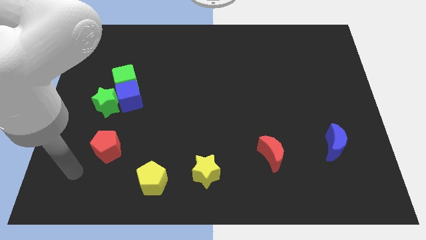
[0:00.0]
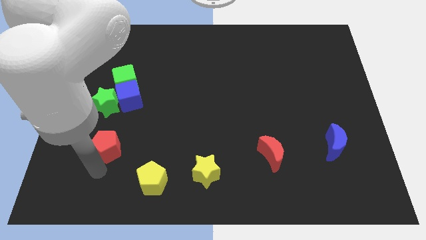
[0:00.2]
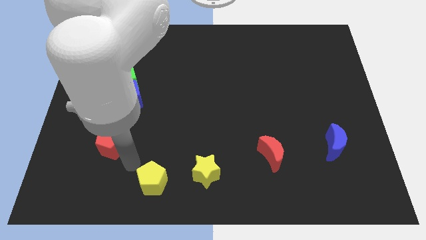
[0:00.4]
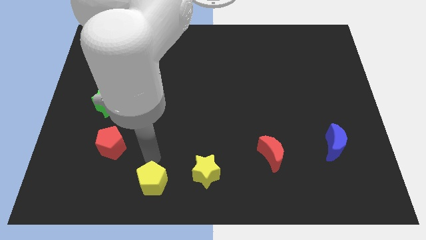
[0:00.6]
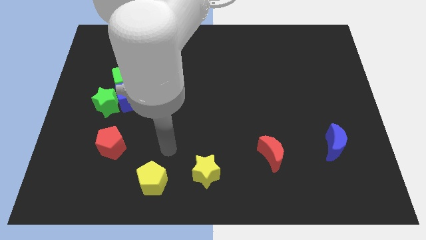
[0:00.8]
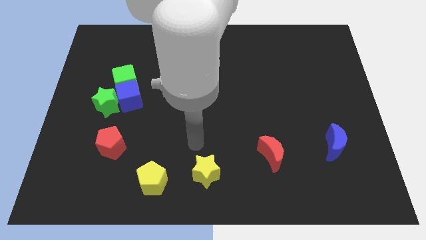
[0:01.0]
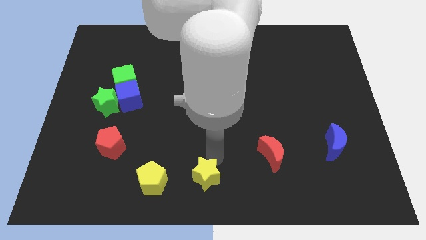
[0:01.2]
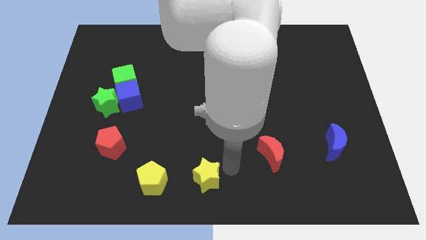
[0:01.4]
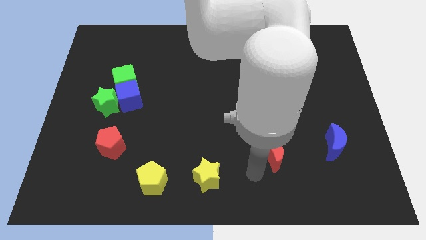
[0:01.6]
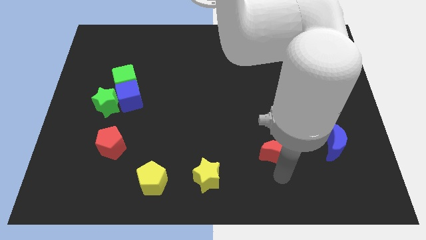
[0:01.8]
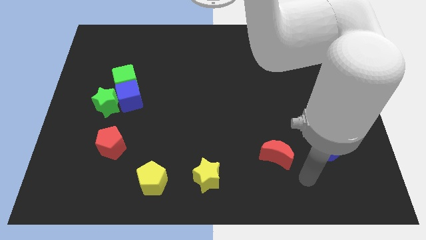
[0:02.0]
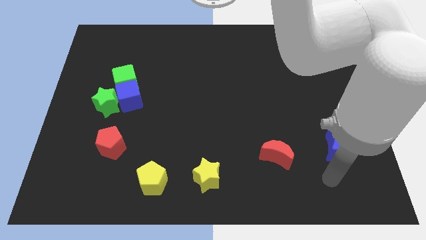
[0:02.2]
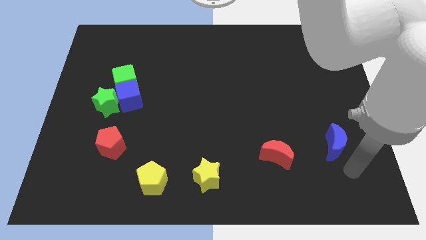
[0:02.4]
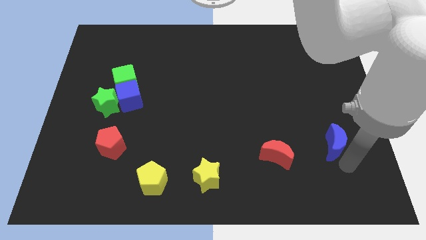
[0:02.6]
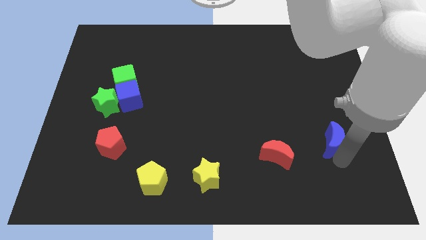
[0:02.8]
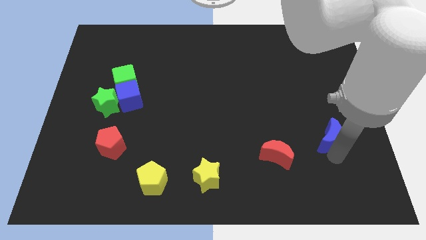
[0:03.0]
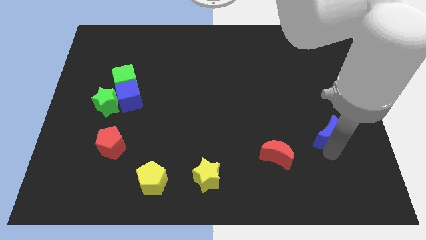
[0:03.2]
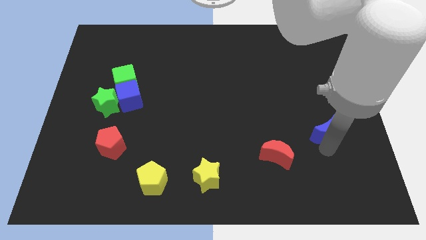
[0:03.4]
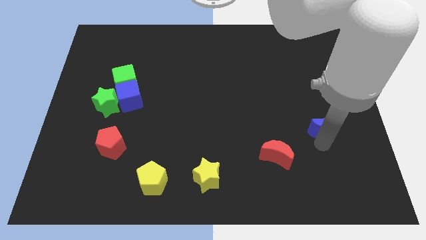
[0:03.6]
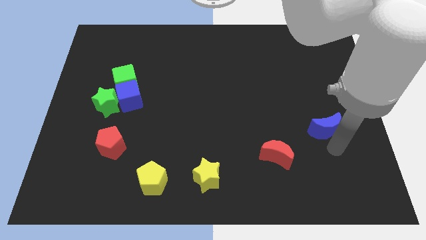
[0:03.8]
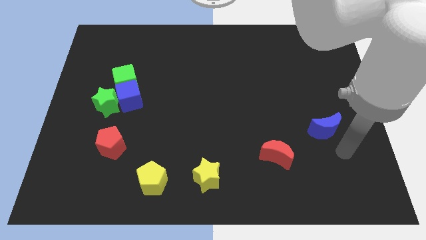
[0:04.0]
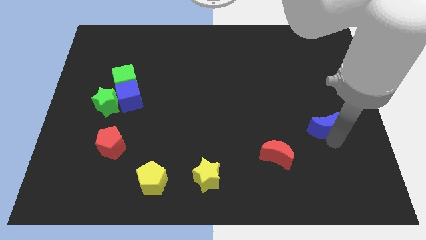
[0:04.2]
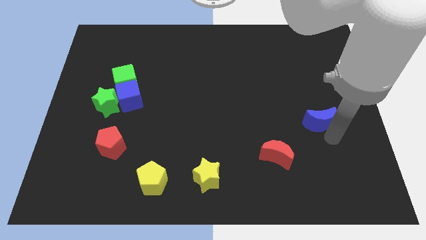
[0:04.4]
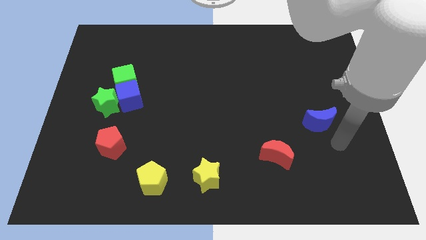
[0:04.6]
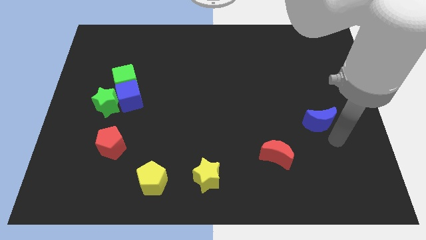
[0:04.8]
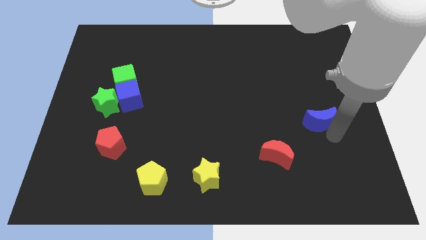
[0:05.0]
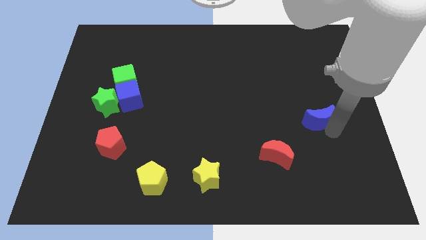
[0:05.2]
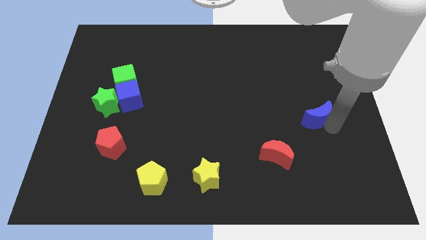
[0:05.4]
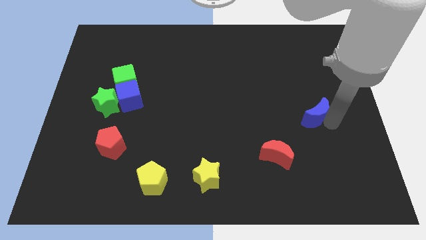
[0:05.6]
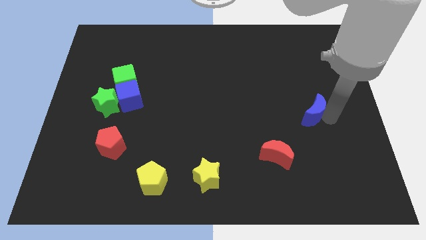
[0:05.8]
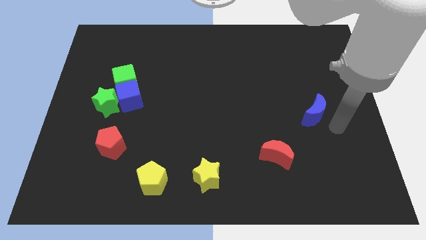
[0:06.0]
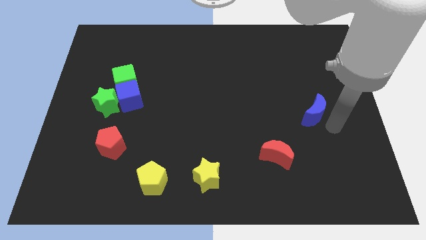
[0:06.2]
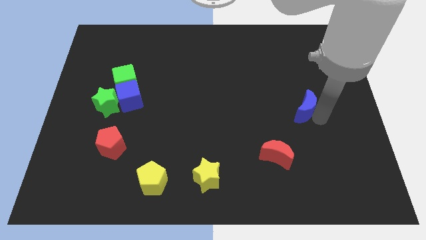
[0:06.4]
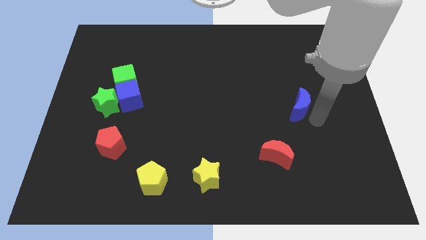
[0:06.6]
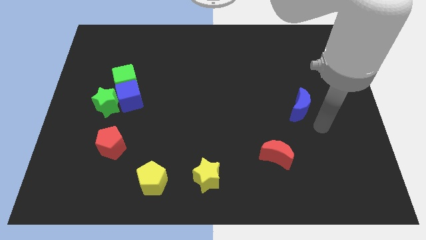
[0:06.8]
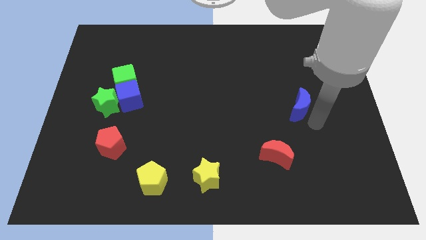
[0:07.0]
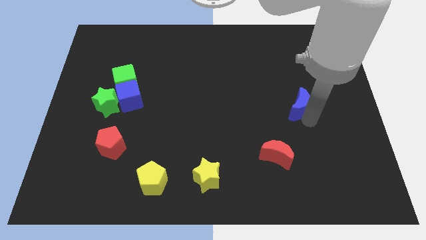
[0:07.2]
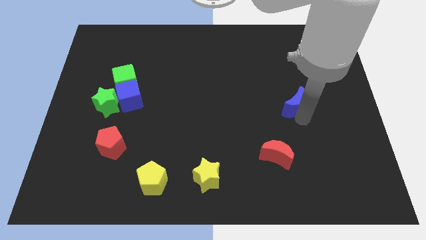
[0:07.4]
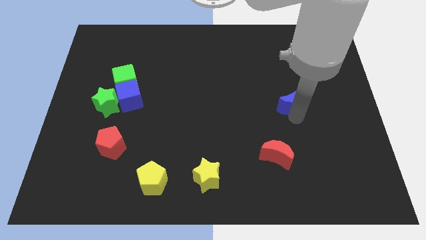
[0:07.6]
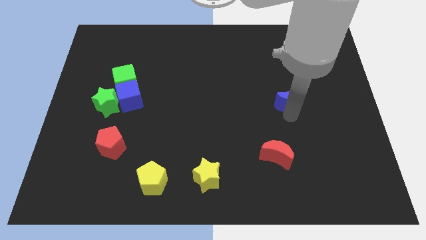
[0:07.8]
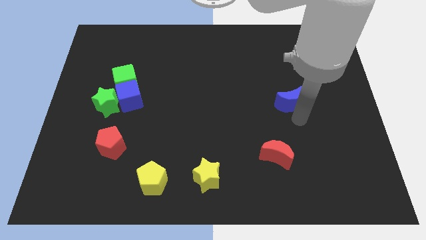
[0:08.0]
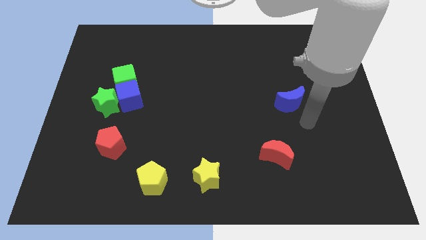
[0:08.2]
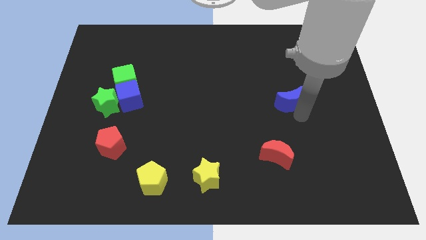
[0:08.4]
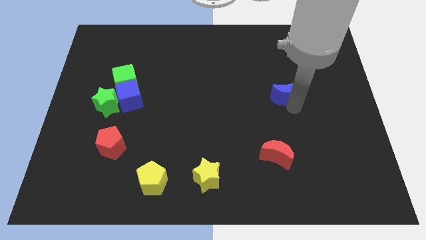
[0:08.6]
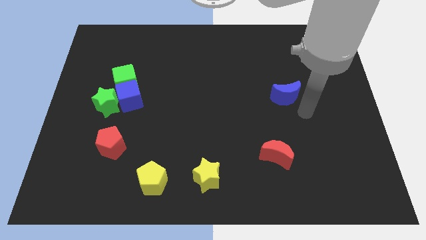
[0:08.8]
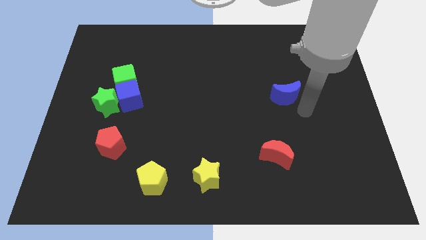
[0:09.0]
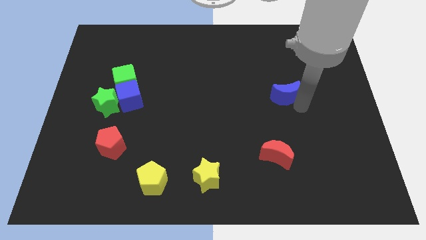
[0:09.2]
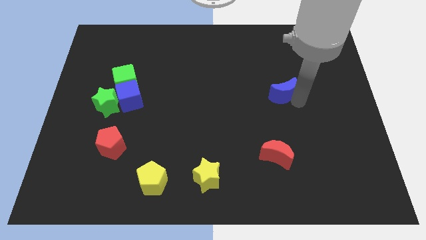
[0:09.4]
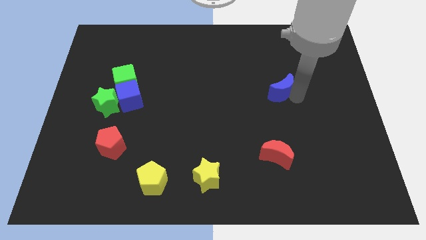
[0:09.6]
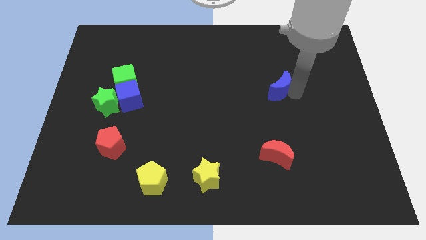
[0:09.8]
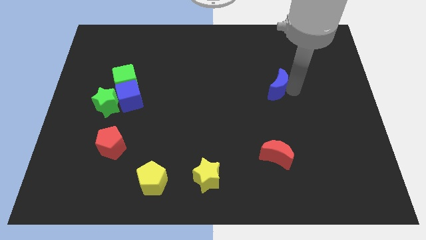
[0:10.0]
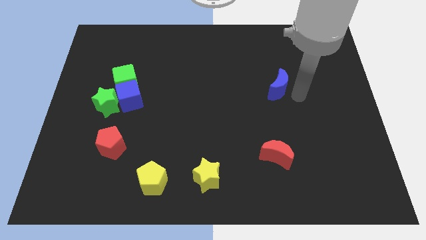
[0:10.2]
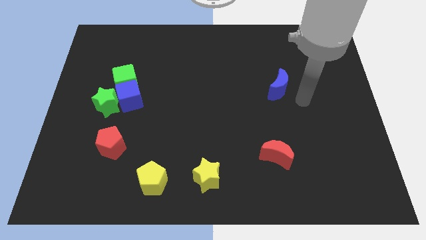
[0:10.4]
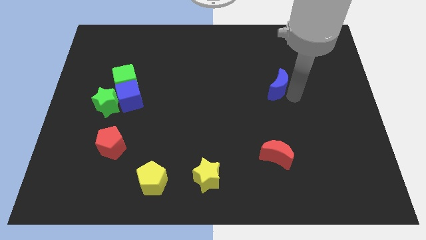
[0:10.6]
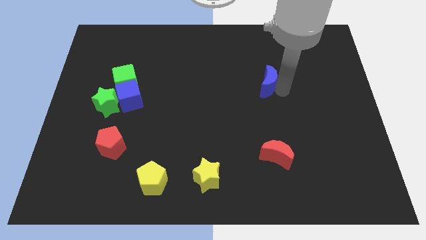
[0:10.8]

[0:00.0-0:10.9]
slide the blue moon up and then to the left

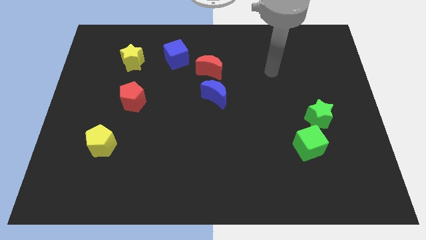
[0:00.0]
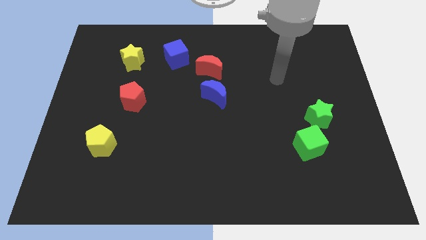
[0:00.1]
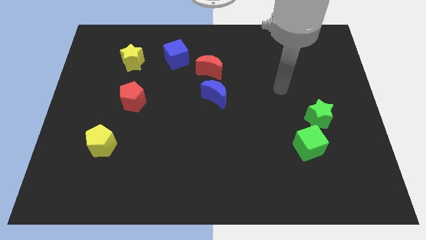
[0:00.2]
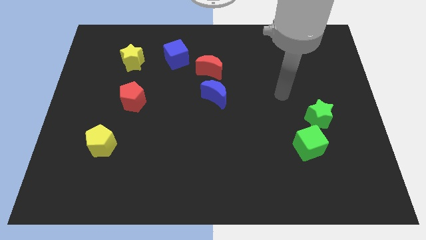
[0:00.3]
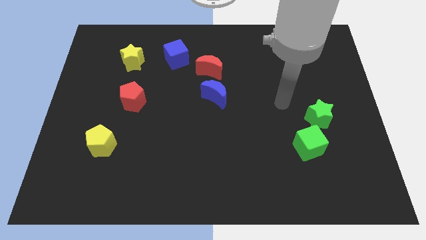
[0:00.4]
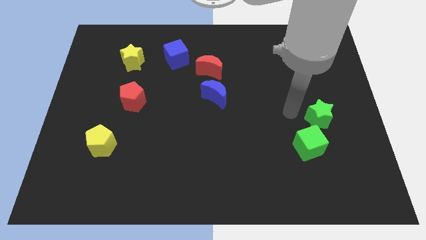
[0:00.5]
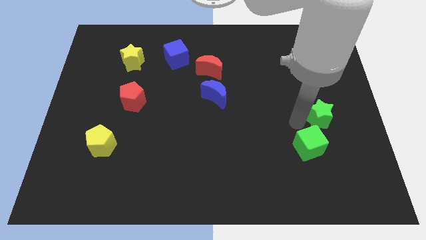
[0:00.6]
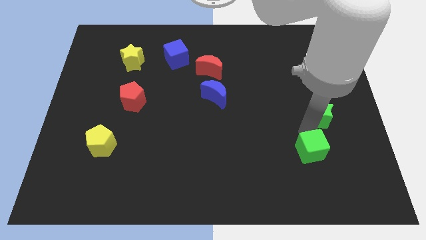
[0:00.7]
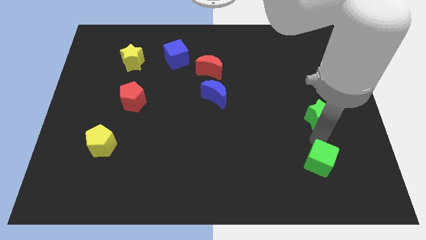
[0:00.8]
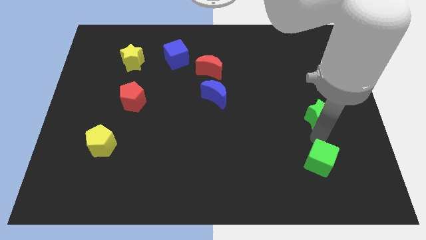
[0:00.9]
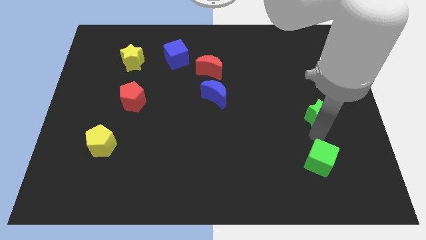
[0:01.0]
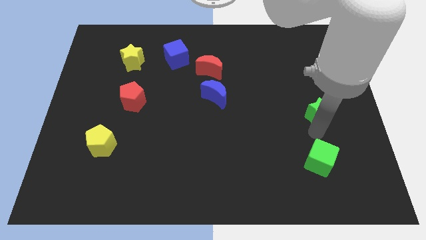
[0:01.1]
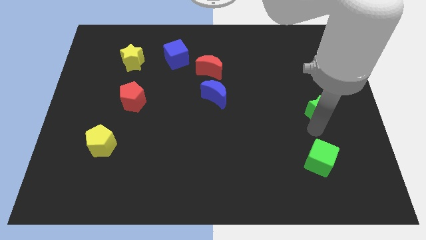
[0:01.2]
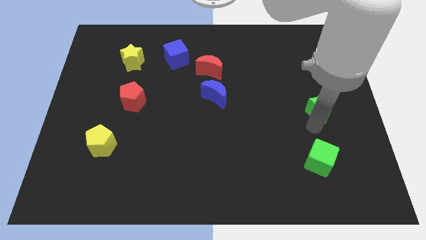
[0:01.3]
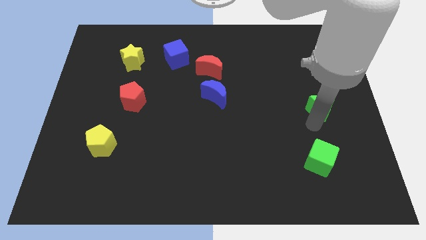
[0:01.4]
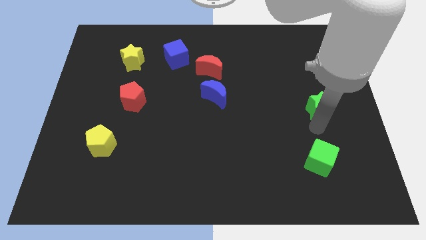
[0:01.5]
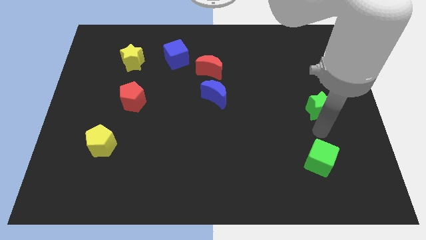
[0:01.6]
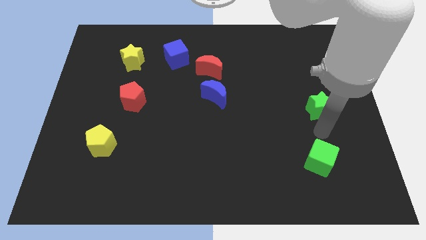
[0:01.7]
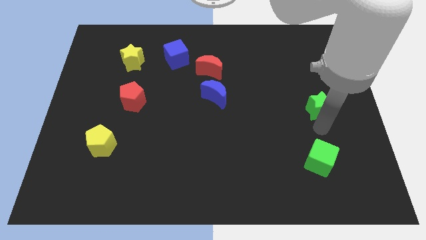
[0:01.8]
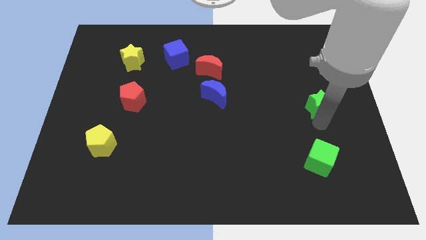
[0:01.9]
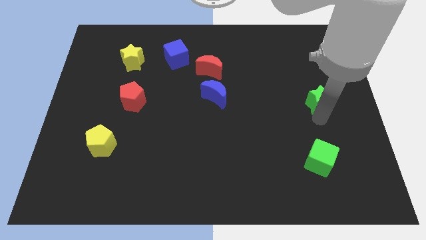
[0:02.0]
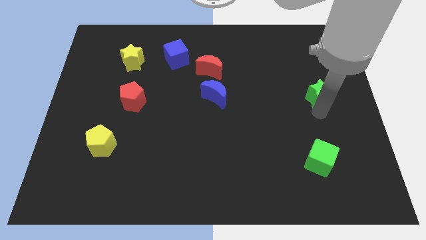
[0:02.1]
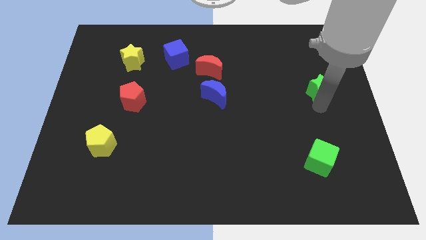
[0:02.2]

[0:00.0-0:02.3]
move the green star a bit upwards
